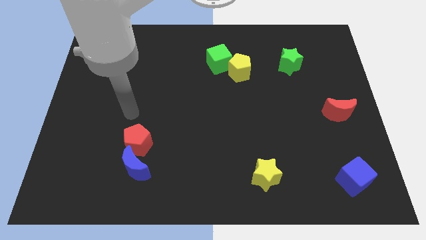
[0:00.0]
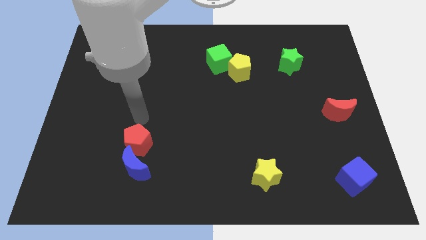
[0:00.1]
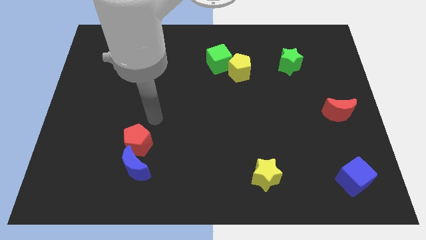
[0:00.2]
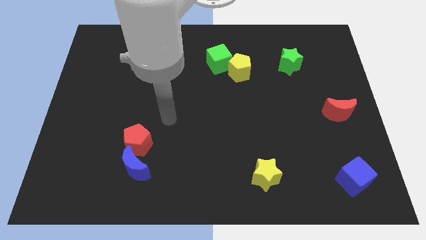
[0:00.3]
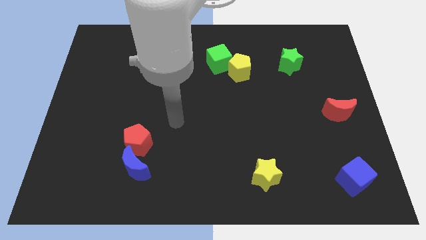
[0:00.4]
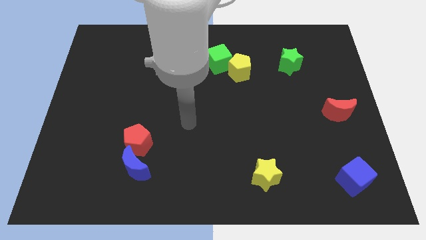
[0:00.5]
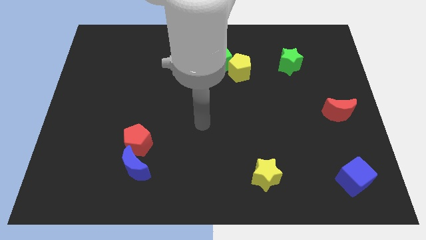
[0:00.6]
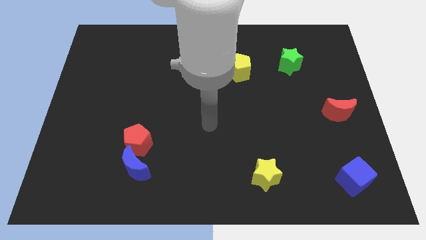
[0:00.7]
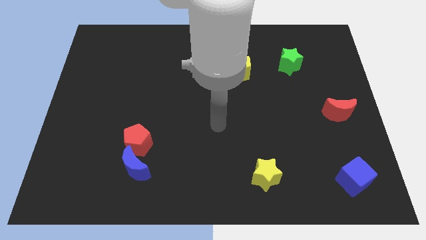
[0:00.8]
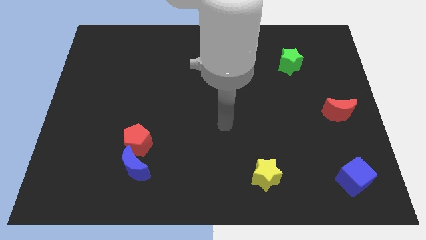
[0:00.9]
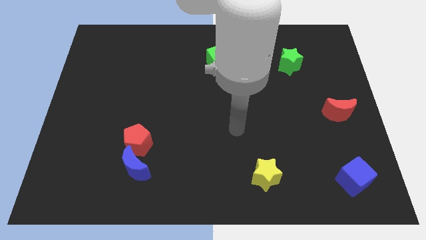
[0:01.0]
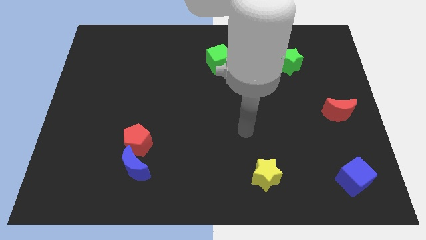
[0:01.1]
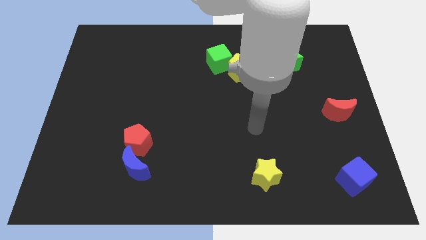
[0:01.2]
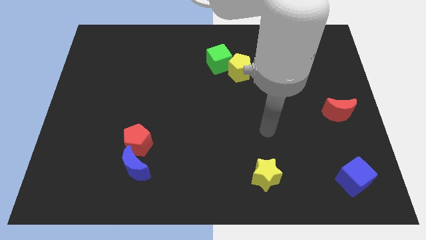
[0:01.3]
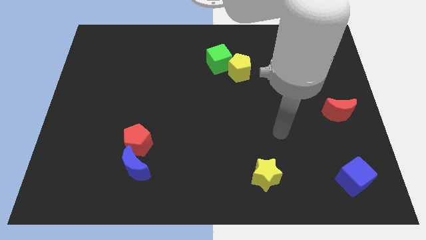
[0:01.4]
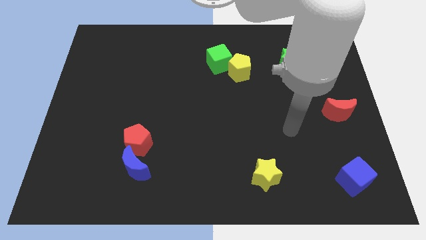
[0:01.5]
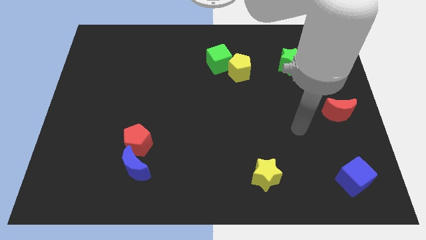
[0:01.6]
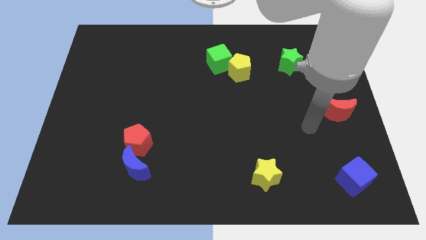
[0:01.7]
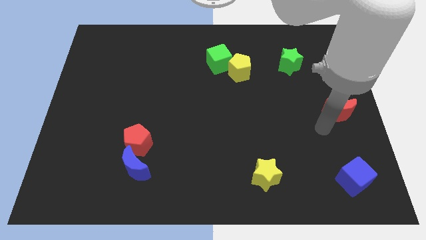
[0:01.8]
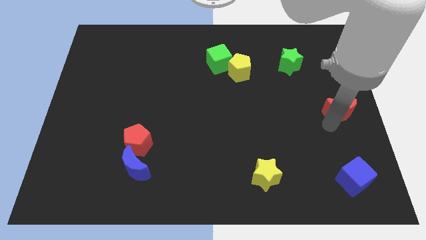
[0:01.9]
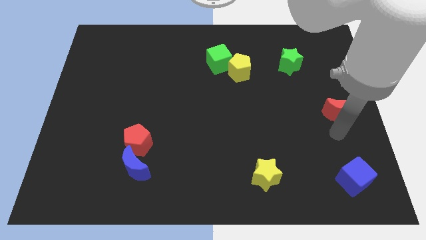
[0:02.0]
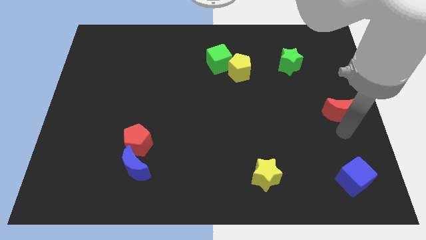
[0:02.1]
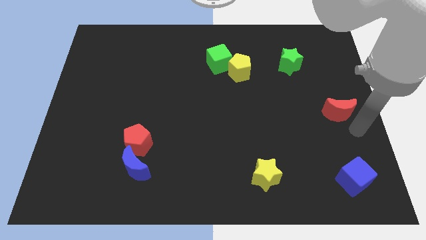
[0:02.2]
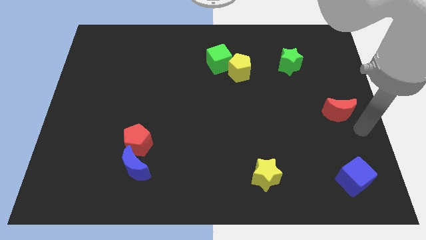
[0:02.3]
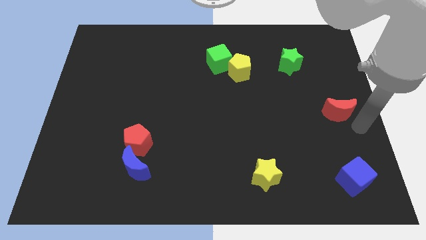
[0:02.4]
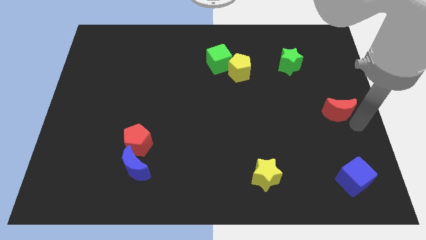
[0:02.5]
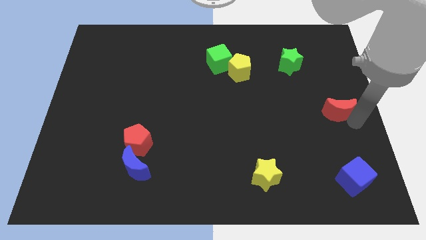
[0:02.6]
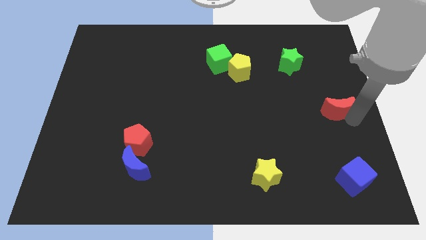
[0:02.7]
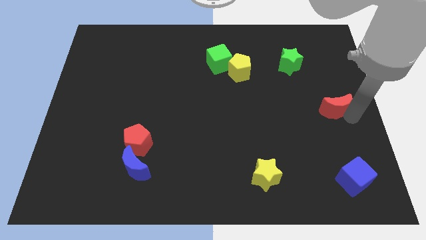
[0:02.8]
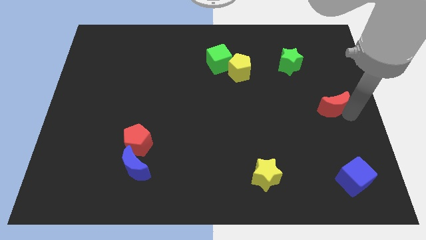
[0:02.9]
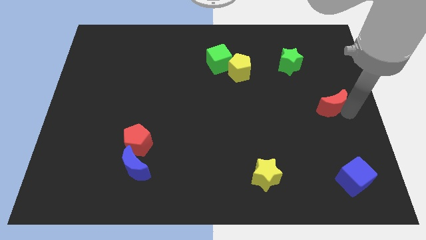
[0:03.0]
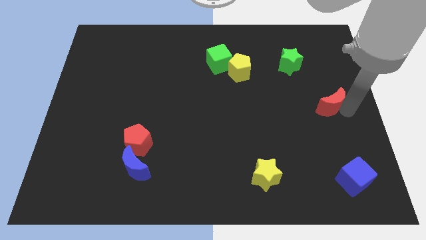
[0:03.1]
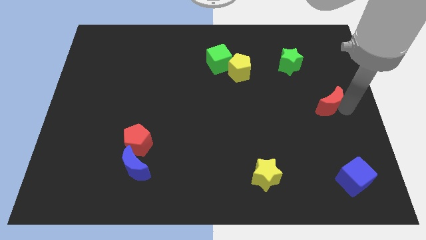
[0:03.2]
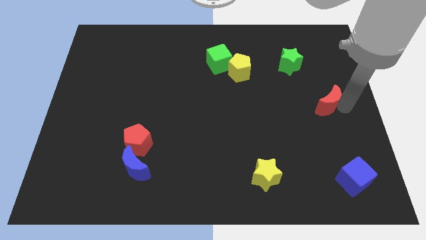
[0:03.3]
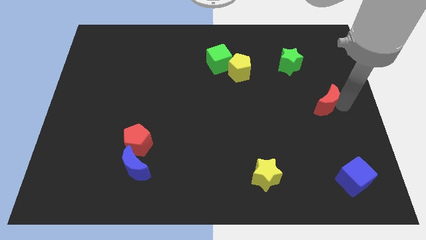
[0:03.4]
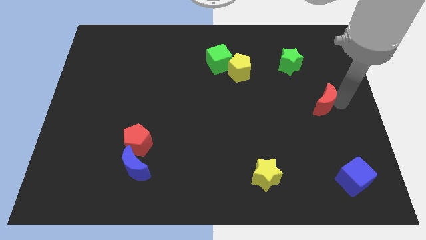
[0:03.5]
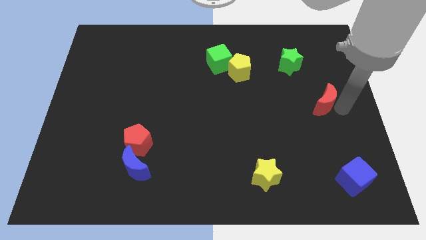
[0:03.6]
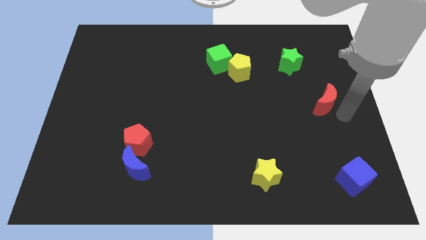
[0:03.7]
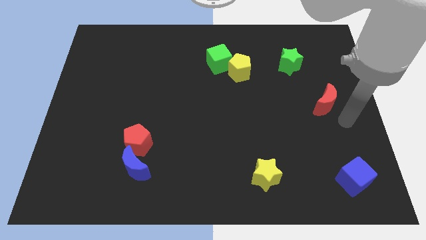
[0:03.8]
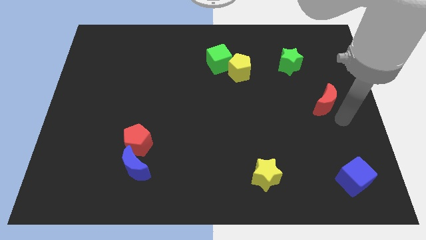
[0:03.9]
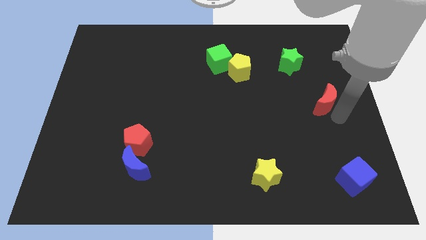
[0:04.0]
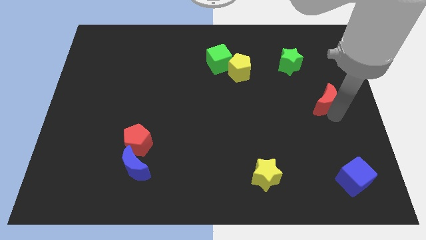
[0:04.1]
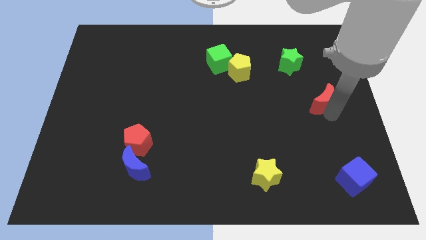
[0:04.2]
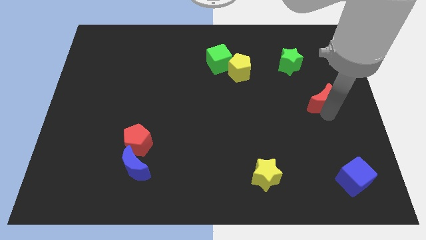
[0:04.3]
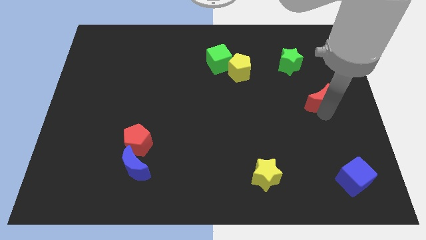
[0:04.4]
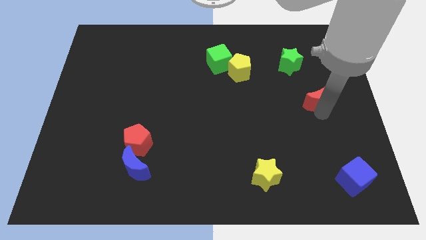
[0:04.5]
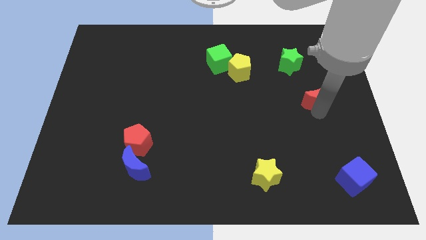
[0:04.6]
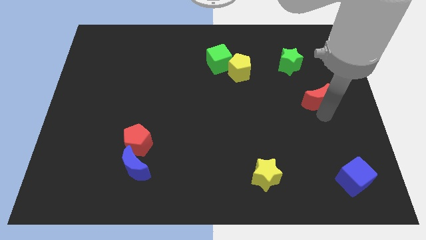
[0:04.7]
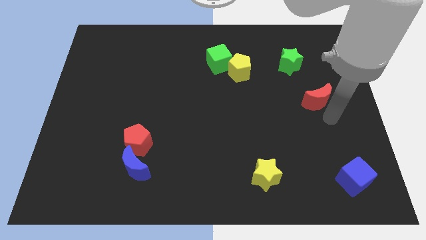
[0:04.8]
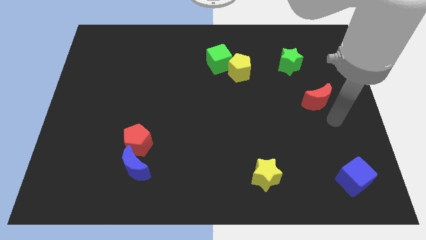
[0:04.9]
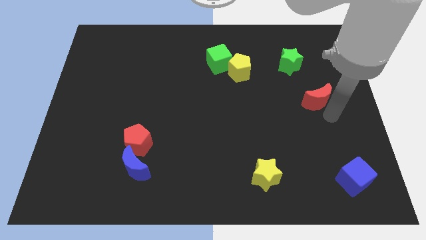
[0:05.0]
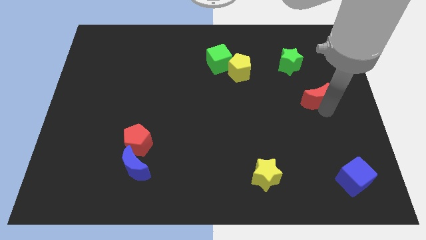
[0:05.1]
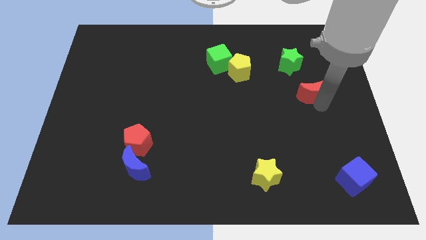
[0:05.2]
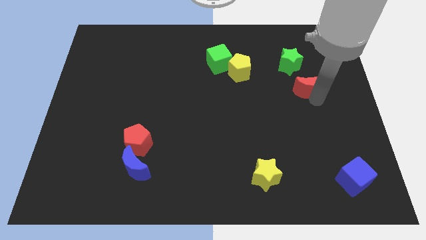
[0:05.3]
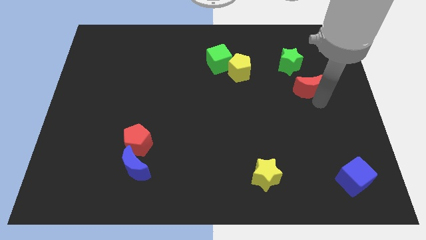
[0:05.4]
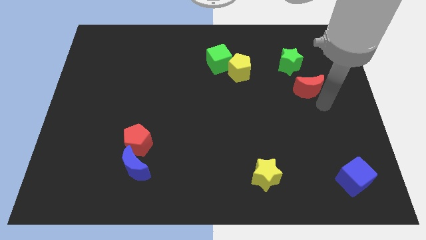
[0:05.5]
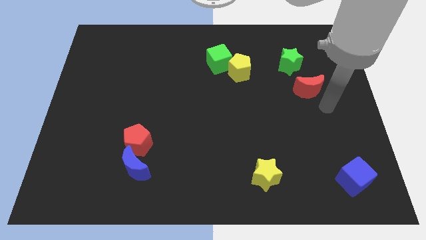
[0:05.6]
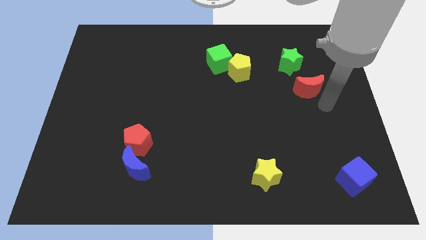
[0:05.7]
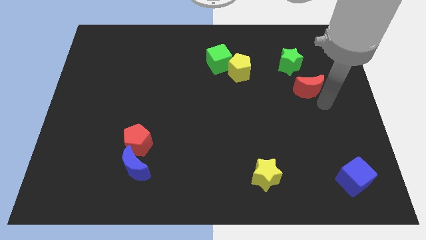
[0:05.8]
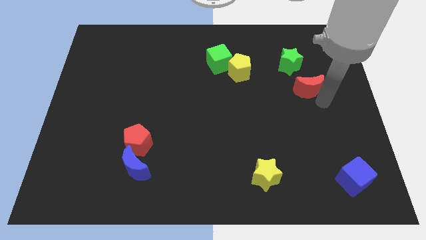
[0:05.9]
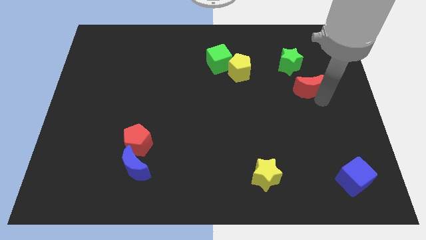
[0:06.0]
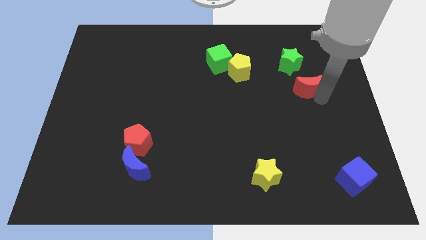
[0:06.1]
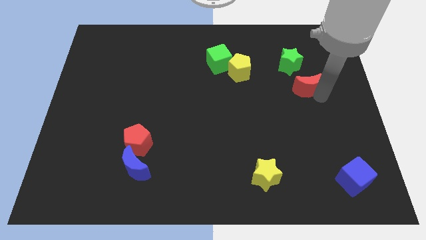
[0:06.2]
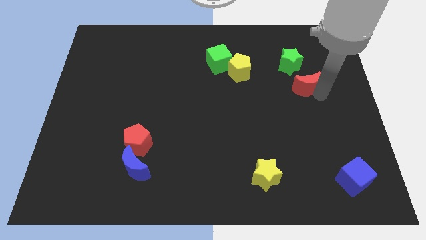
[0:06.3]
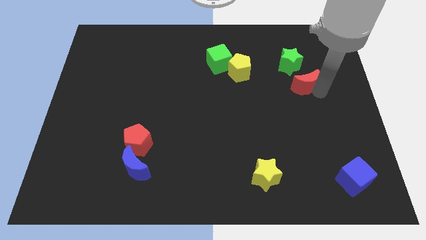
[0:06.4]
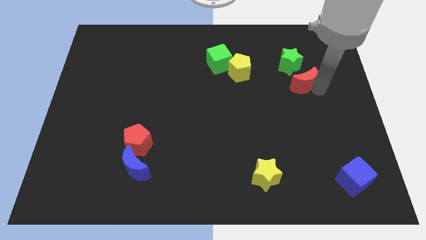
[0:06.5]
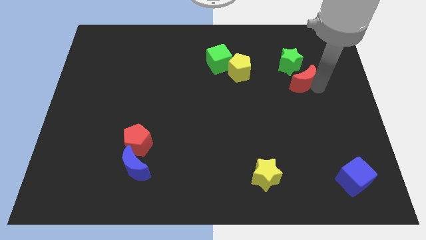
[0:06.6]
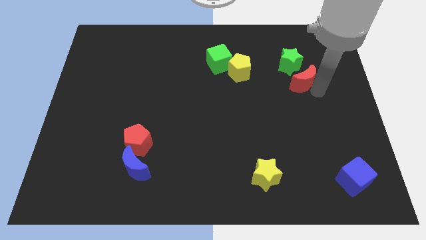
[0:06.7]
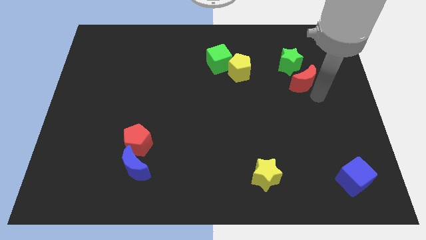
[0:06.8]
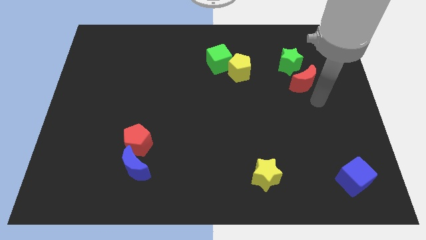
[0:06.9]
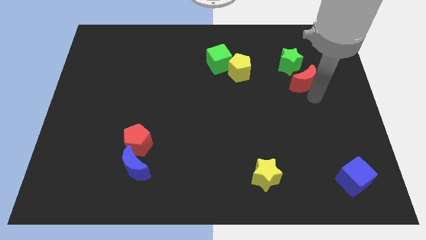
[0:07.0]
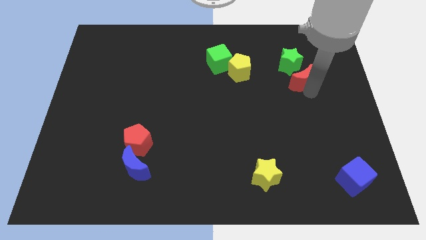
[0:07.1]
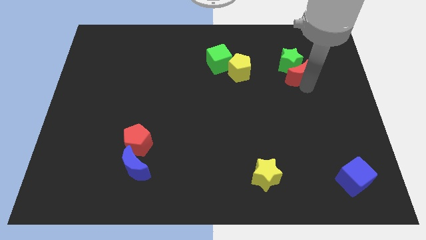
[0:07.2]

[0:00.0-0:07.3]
push the red moon to the green star

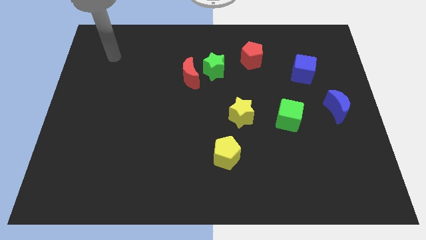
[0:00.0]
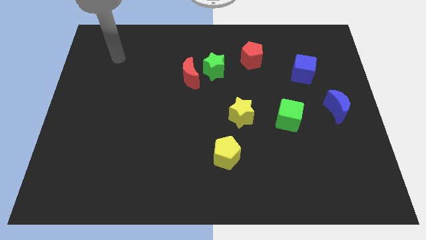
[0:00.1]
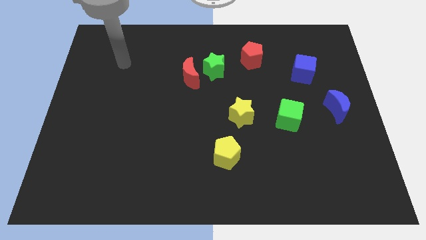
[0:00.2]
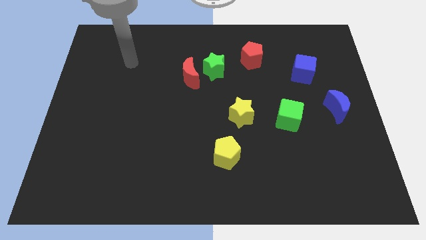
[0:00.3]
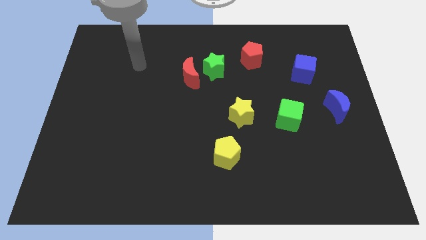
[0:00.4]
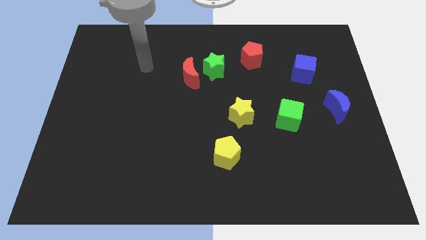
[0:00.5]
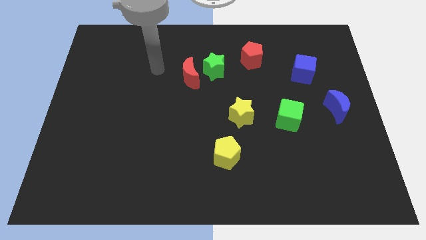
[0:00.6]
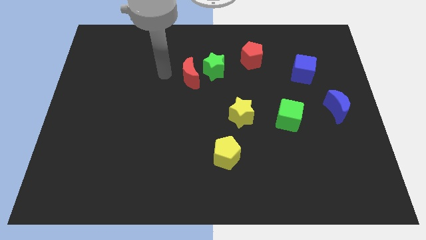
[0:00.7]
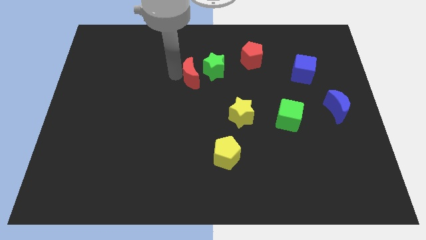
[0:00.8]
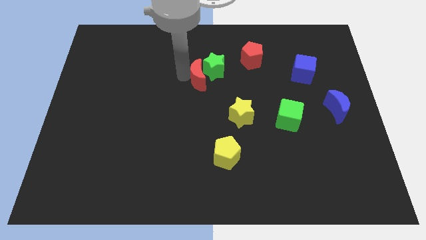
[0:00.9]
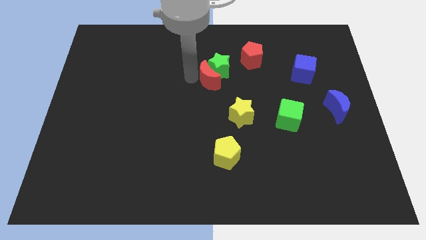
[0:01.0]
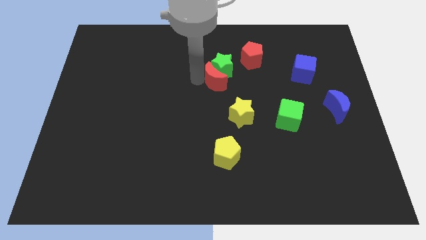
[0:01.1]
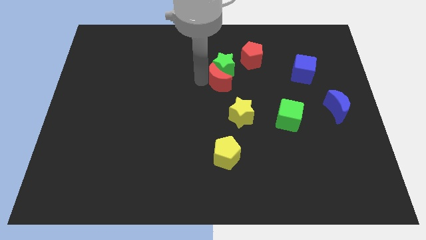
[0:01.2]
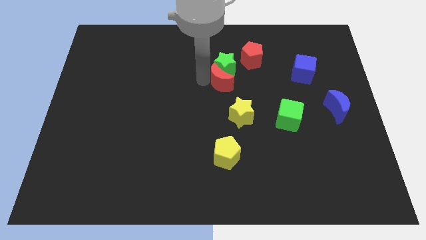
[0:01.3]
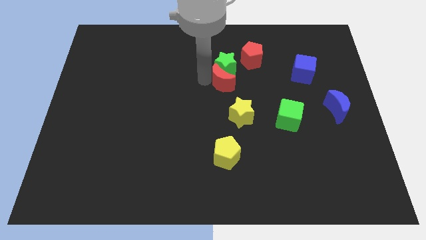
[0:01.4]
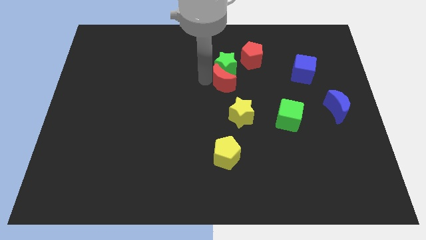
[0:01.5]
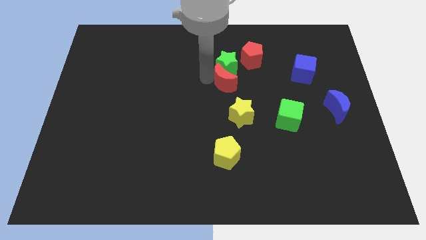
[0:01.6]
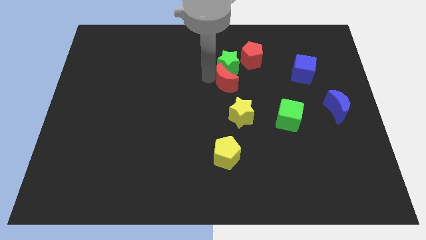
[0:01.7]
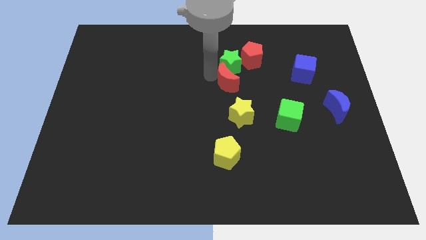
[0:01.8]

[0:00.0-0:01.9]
put the green star towards the red pentagon
